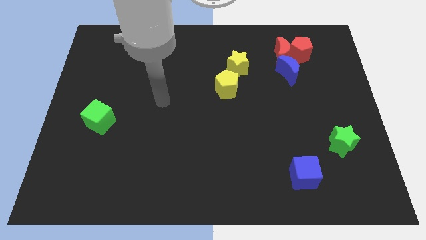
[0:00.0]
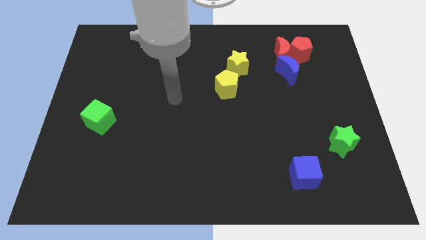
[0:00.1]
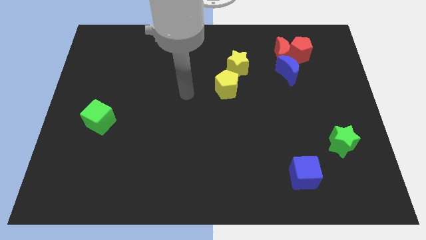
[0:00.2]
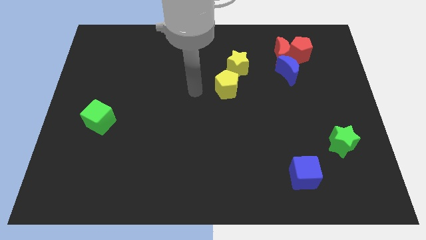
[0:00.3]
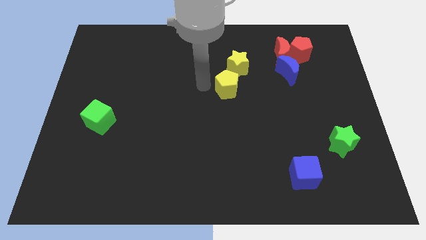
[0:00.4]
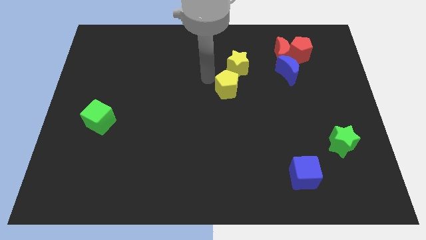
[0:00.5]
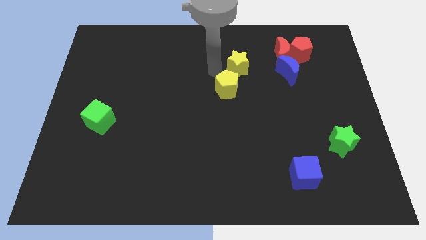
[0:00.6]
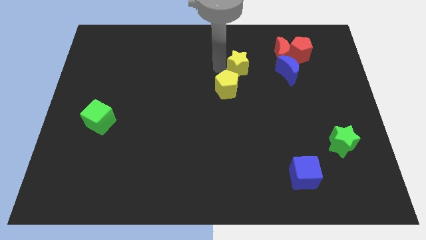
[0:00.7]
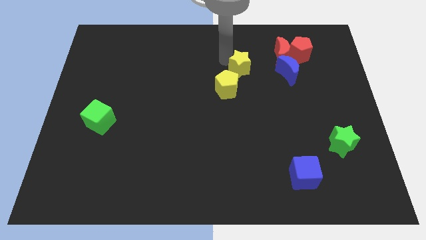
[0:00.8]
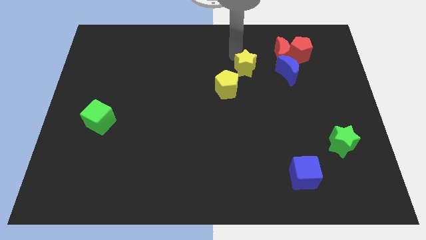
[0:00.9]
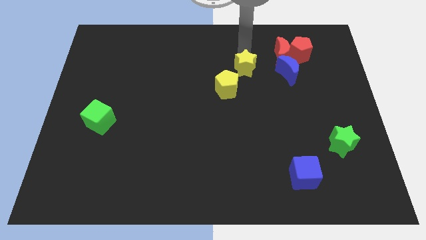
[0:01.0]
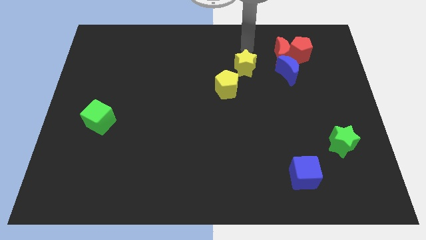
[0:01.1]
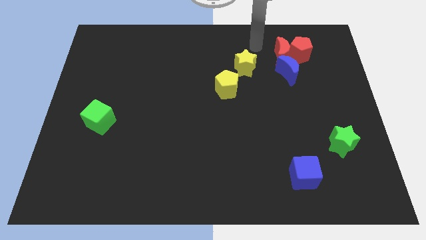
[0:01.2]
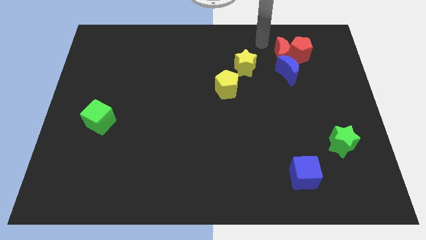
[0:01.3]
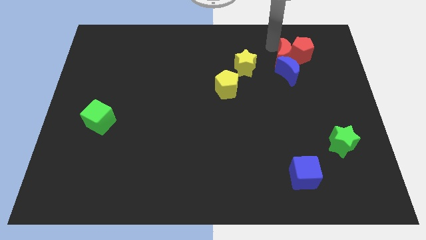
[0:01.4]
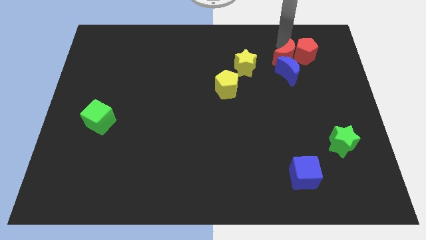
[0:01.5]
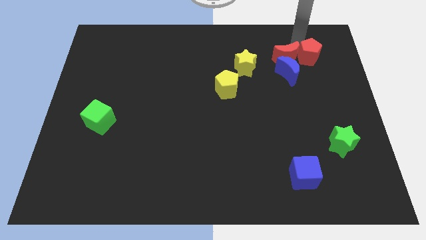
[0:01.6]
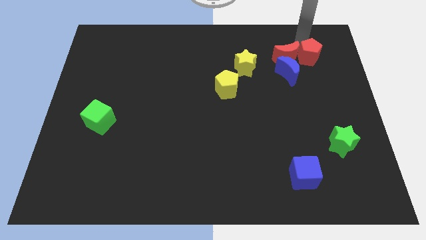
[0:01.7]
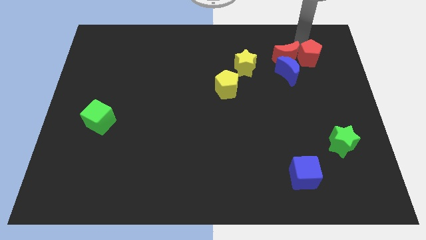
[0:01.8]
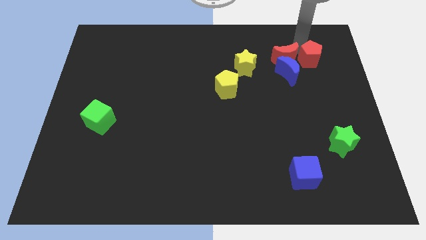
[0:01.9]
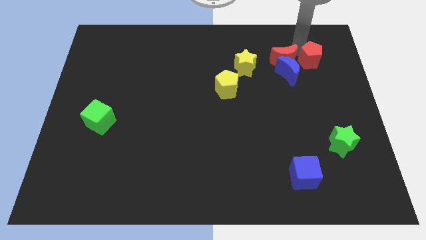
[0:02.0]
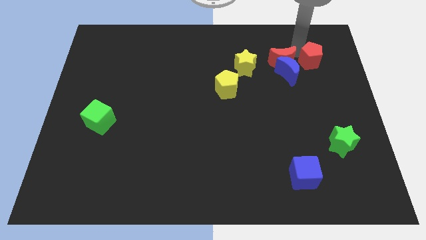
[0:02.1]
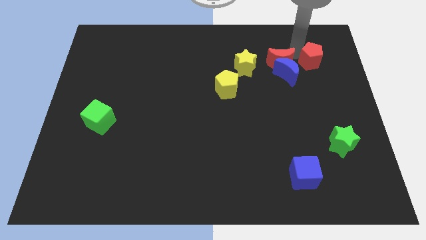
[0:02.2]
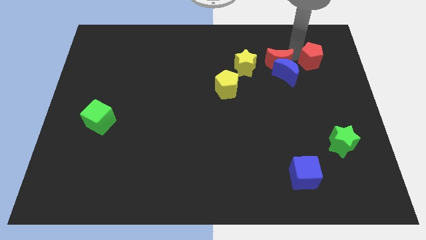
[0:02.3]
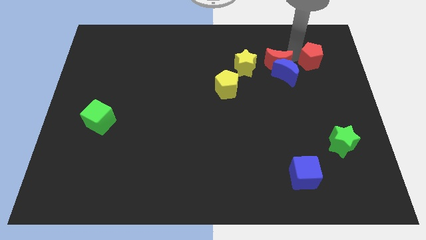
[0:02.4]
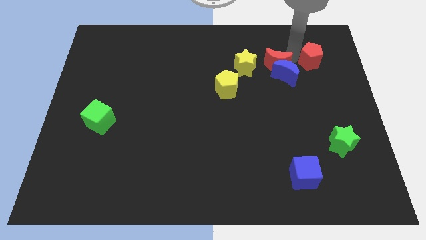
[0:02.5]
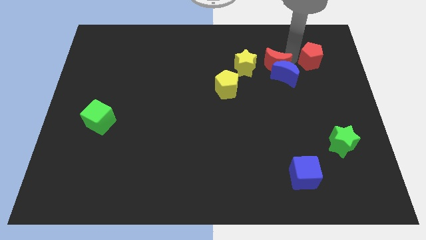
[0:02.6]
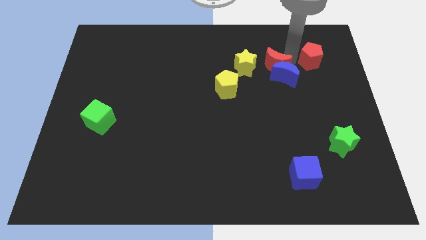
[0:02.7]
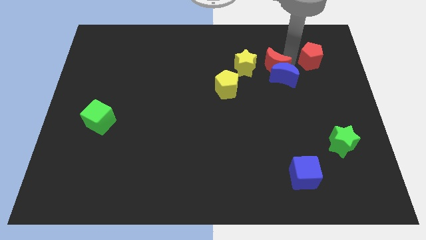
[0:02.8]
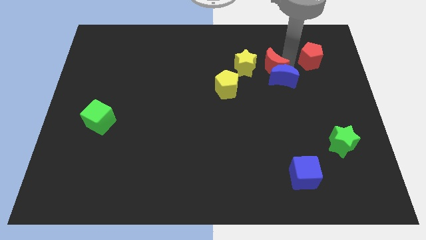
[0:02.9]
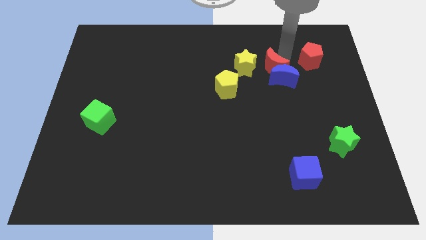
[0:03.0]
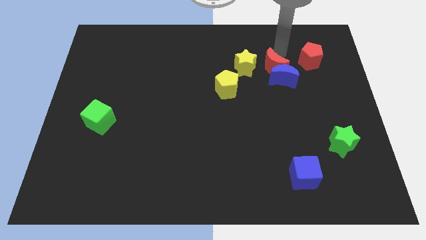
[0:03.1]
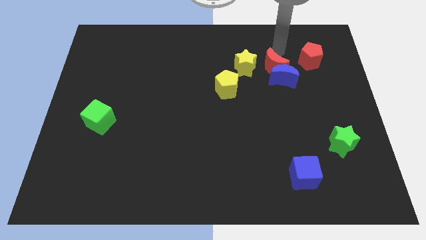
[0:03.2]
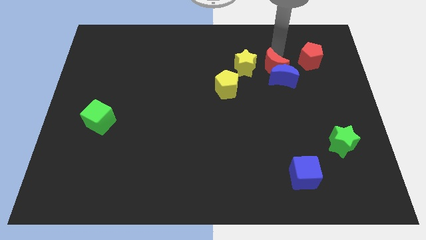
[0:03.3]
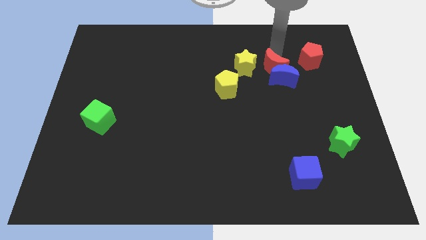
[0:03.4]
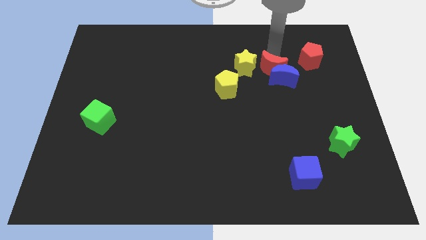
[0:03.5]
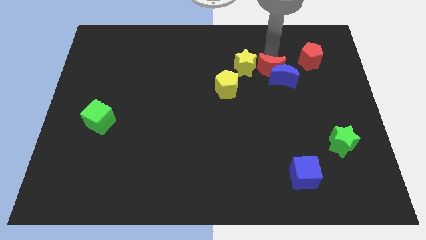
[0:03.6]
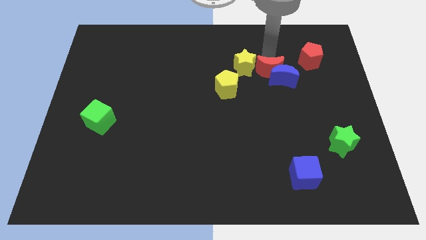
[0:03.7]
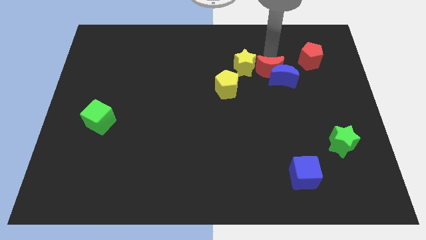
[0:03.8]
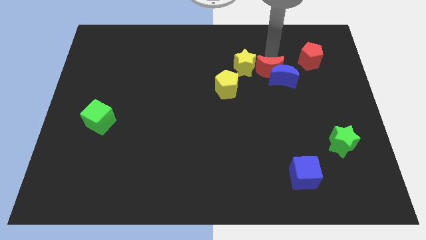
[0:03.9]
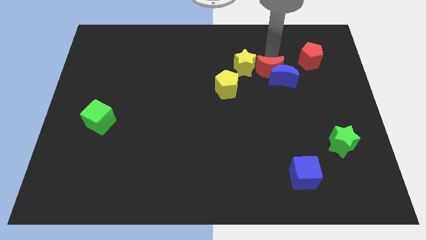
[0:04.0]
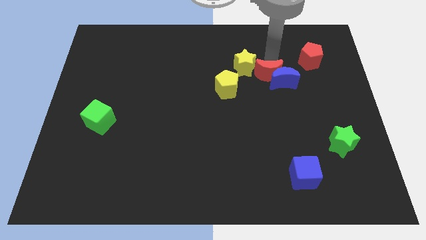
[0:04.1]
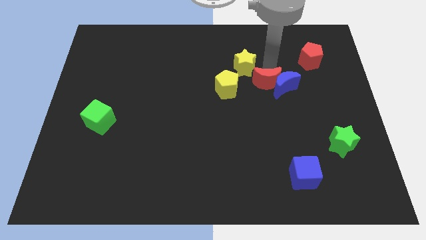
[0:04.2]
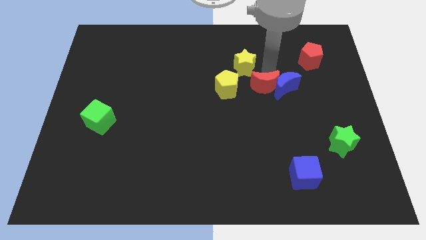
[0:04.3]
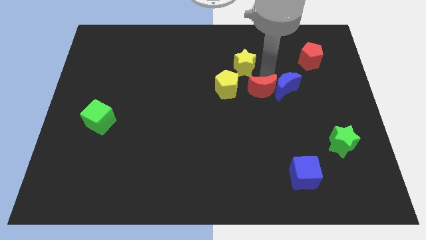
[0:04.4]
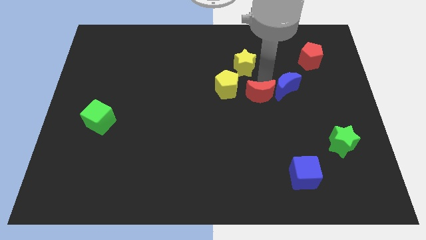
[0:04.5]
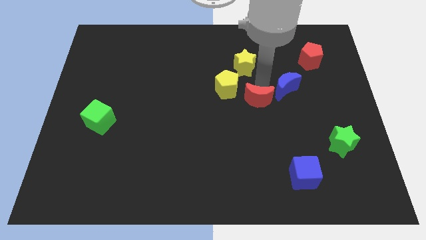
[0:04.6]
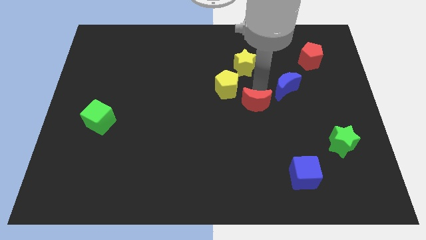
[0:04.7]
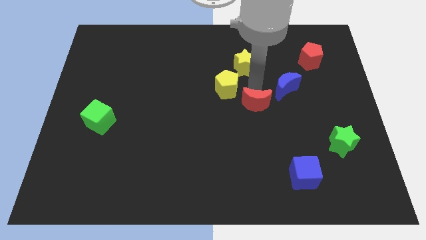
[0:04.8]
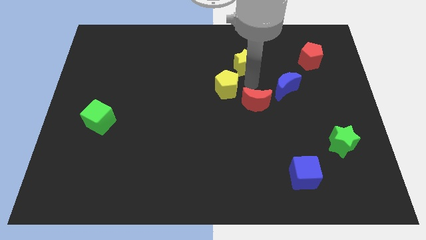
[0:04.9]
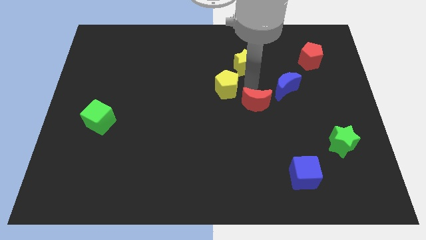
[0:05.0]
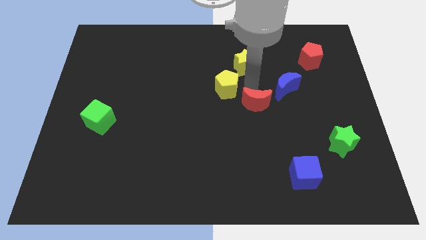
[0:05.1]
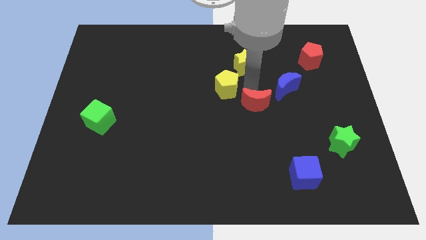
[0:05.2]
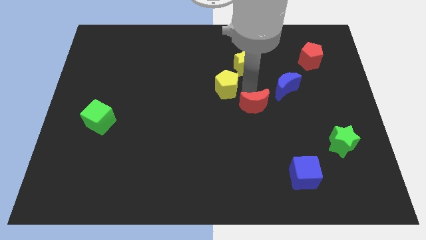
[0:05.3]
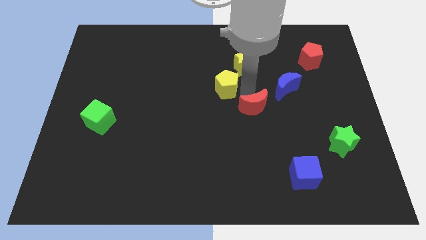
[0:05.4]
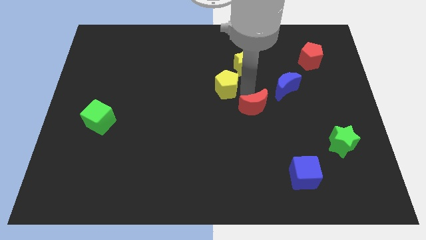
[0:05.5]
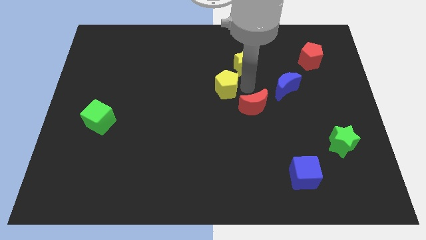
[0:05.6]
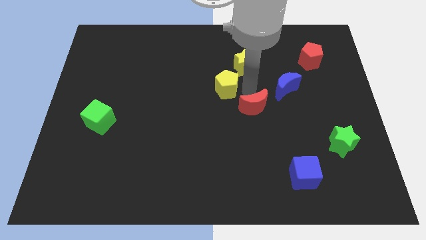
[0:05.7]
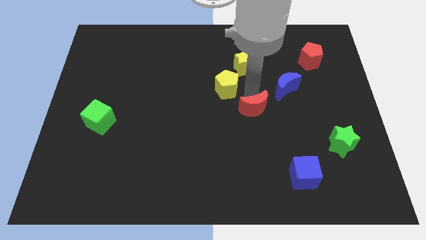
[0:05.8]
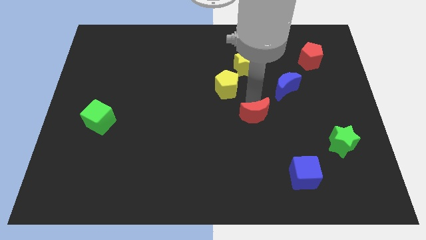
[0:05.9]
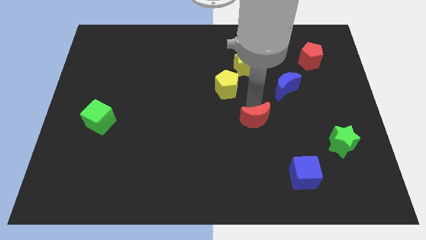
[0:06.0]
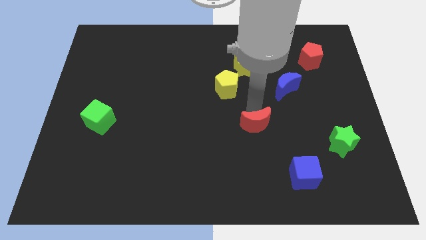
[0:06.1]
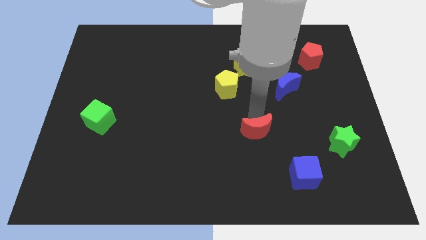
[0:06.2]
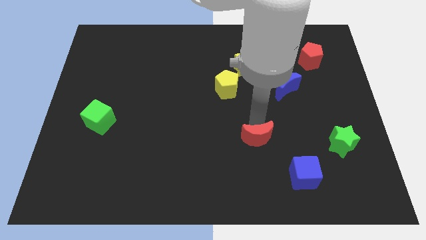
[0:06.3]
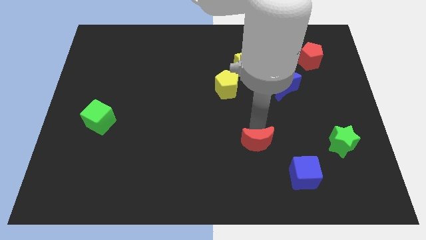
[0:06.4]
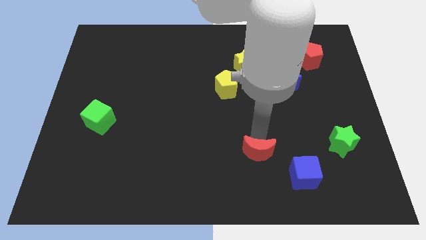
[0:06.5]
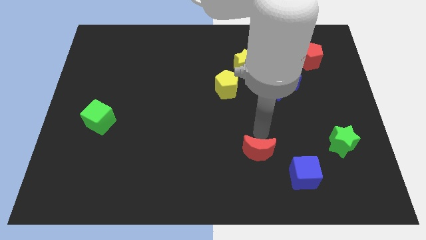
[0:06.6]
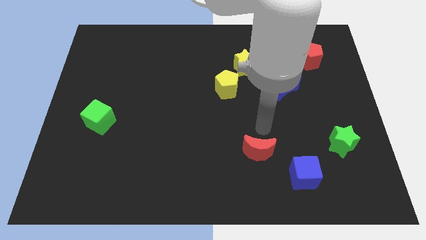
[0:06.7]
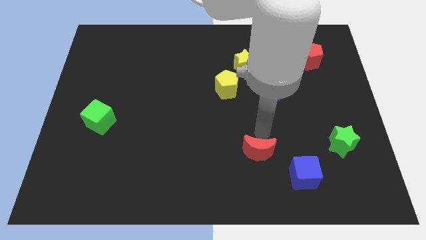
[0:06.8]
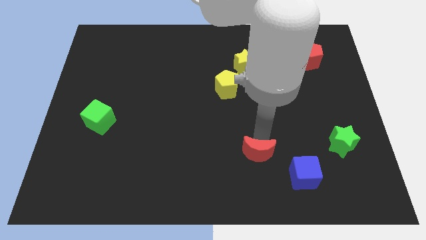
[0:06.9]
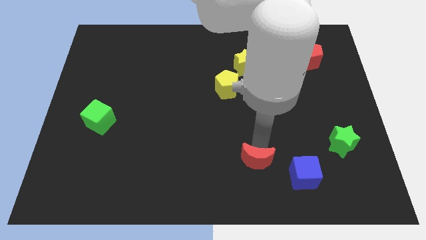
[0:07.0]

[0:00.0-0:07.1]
put the red moon to the left side of the blue cube

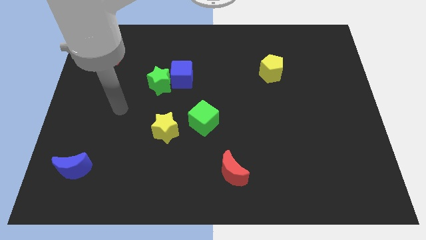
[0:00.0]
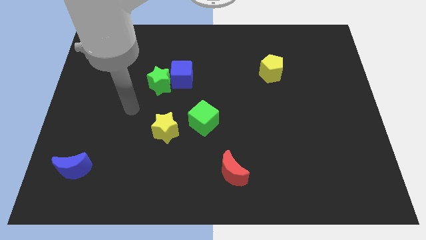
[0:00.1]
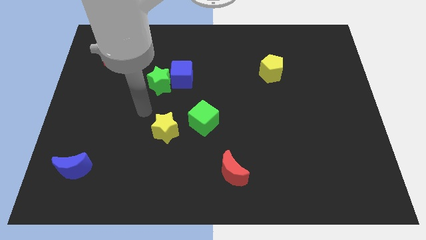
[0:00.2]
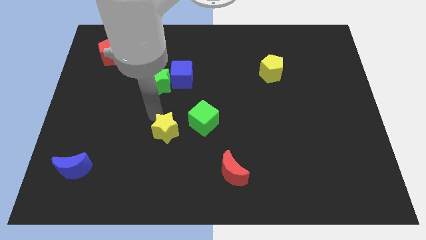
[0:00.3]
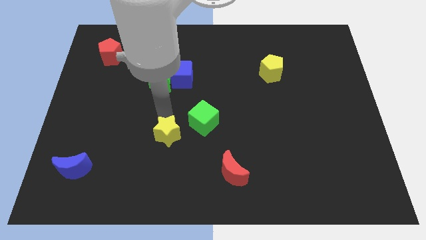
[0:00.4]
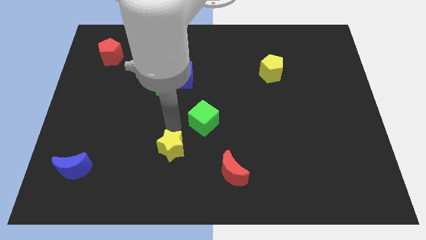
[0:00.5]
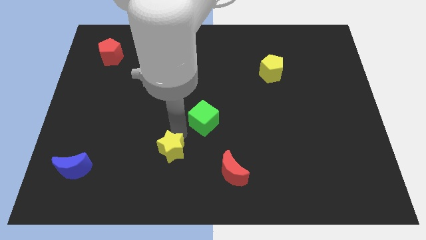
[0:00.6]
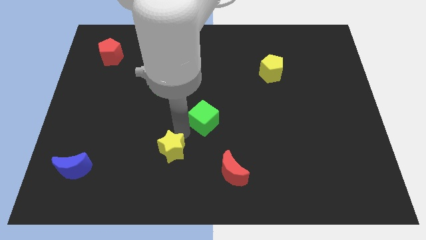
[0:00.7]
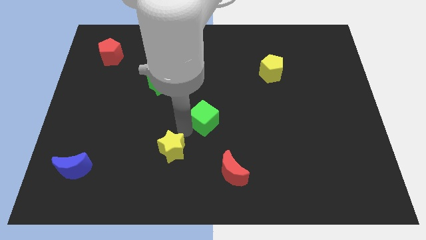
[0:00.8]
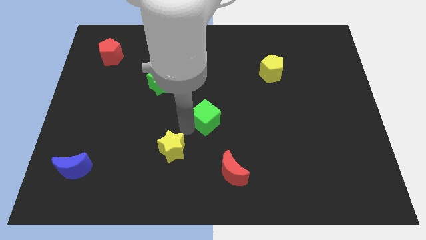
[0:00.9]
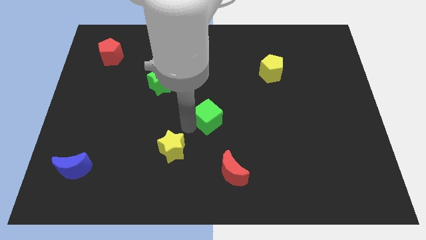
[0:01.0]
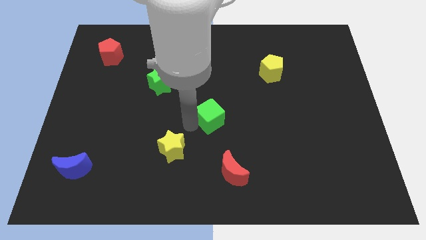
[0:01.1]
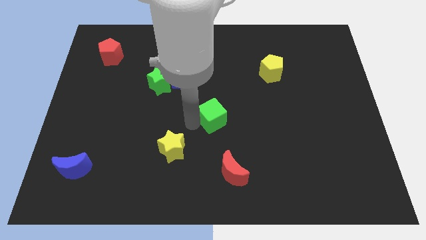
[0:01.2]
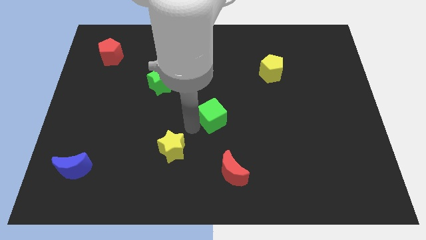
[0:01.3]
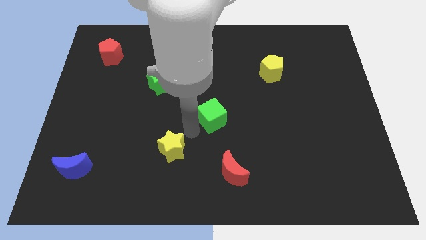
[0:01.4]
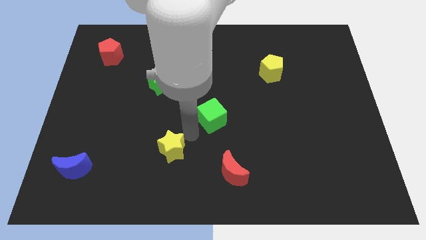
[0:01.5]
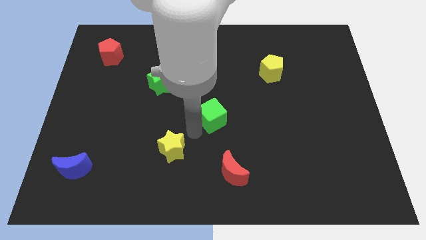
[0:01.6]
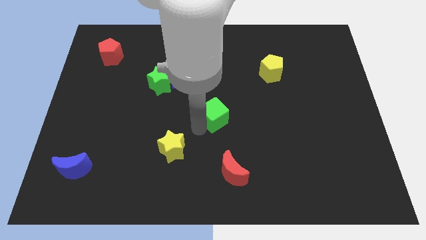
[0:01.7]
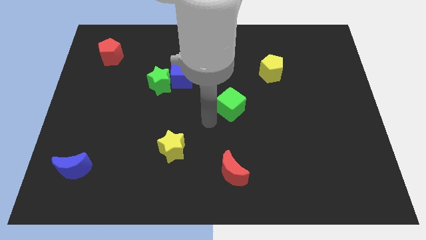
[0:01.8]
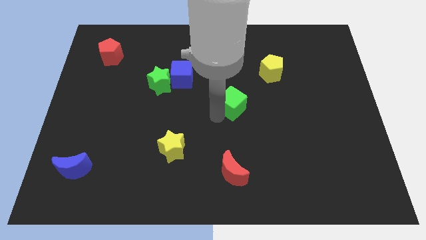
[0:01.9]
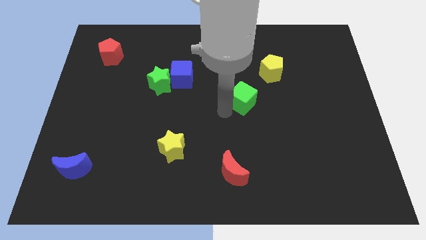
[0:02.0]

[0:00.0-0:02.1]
put the green cube diagonally down and to the left of the yellow pentagon
